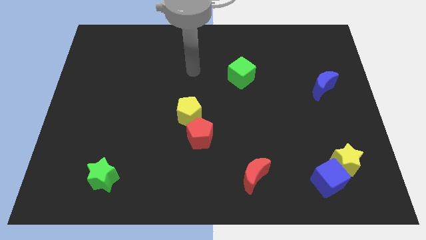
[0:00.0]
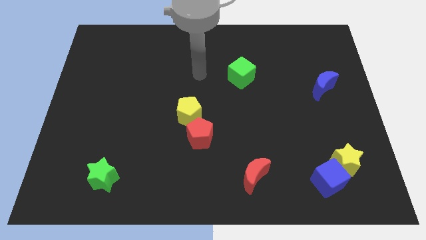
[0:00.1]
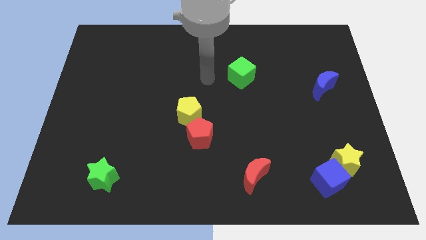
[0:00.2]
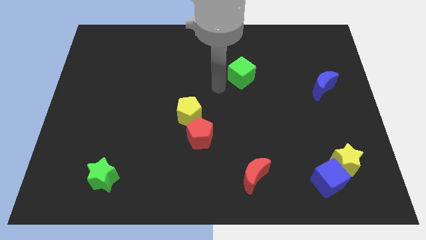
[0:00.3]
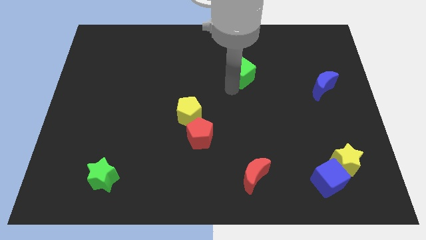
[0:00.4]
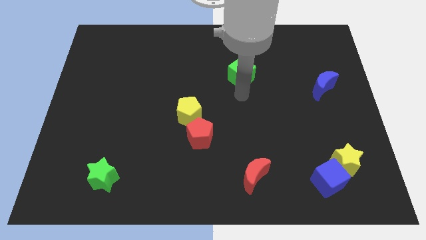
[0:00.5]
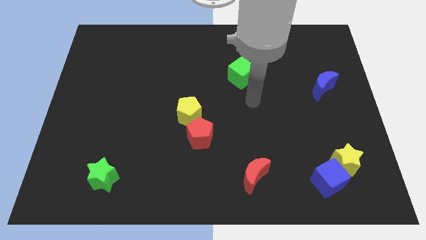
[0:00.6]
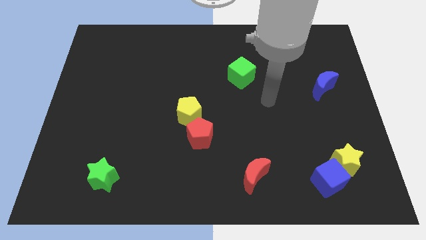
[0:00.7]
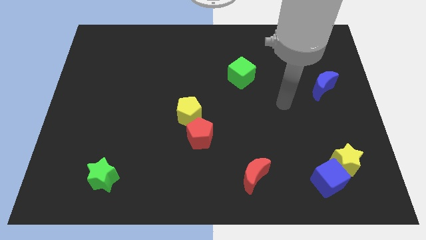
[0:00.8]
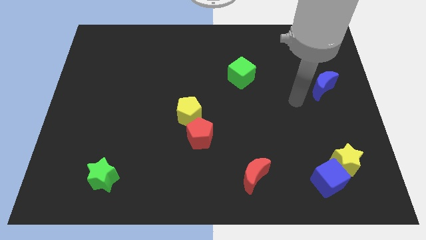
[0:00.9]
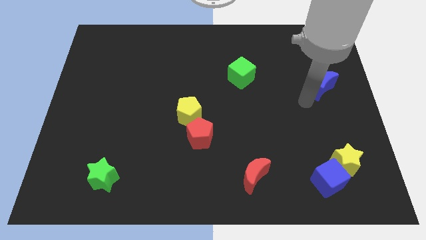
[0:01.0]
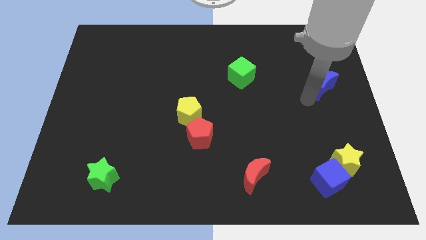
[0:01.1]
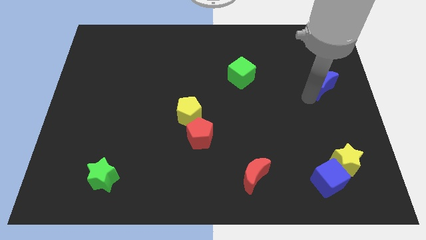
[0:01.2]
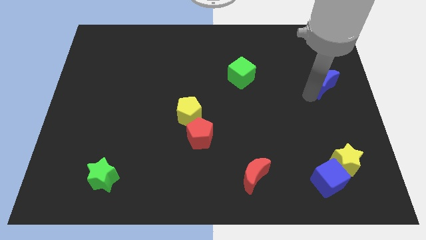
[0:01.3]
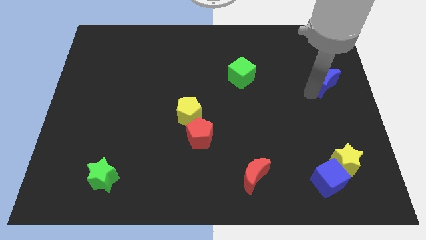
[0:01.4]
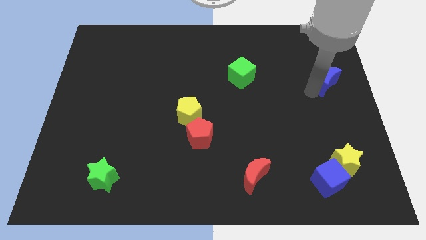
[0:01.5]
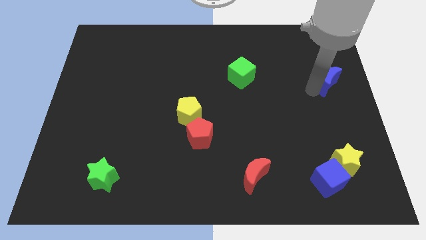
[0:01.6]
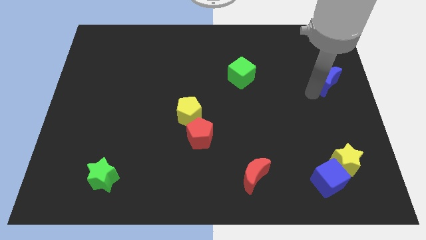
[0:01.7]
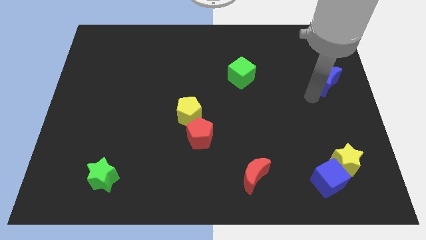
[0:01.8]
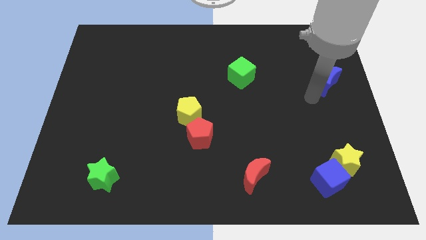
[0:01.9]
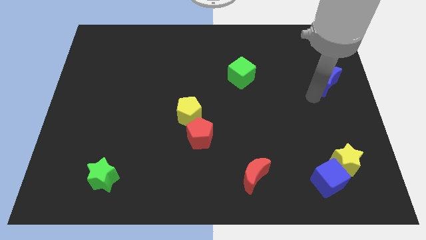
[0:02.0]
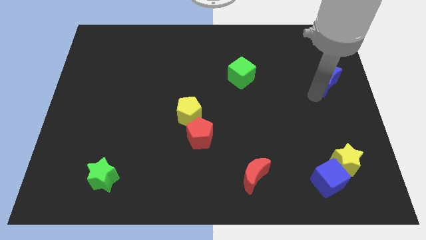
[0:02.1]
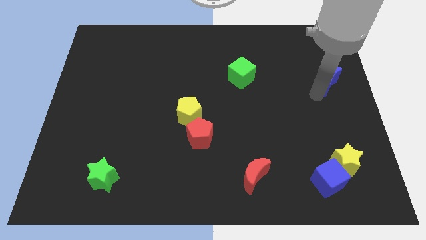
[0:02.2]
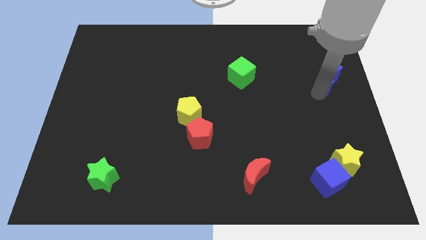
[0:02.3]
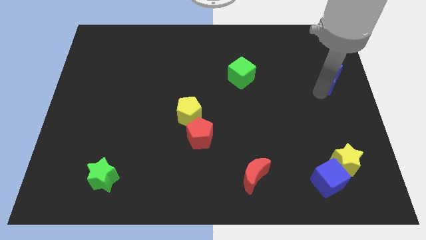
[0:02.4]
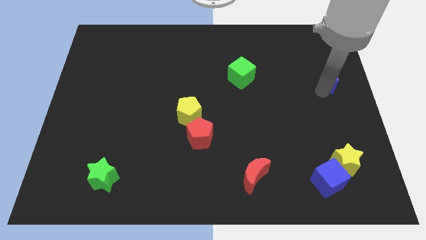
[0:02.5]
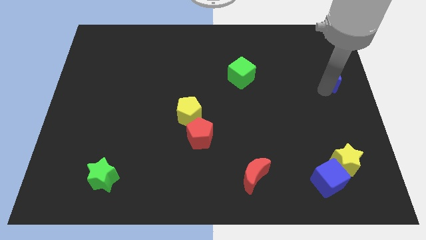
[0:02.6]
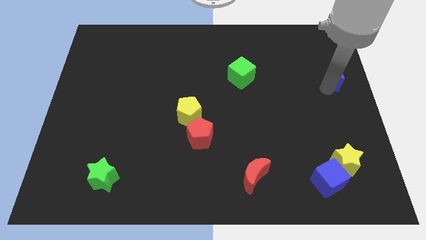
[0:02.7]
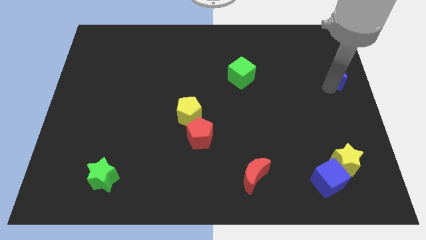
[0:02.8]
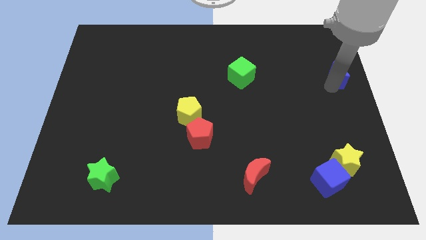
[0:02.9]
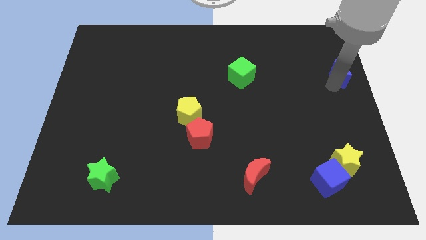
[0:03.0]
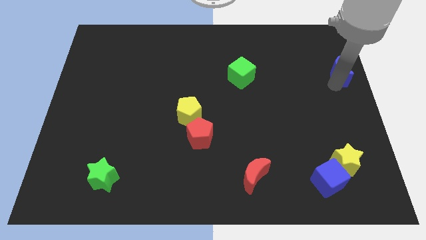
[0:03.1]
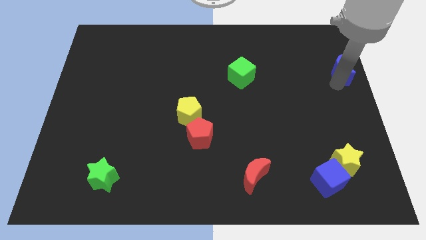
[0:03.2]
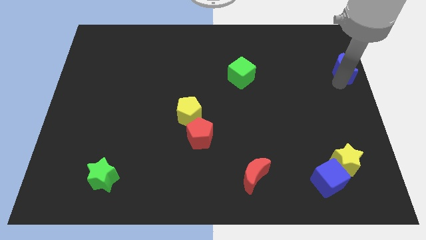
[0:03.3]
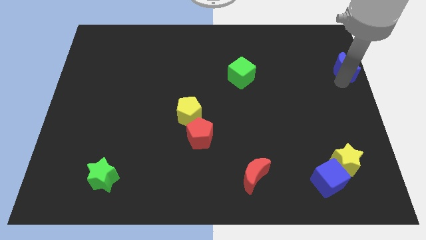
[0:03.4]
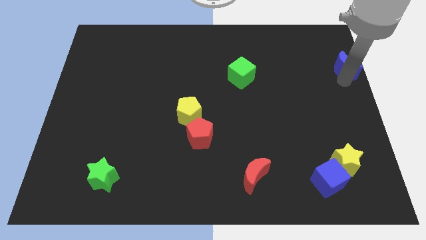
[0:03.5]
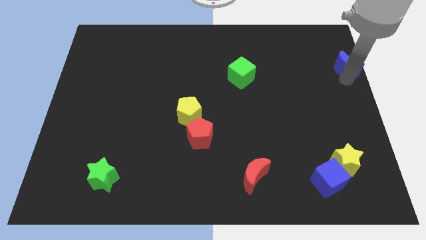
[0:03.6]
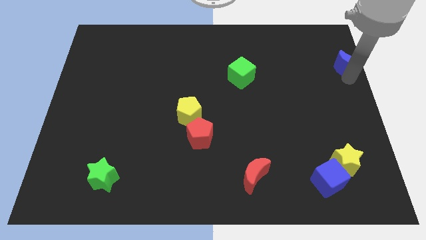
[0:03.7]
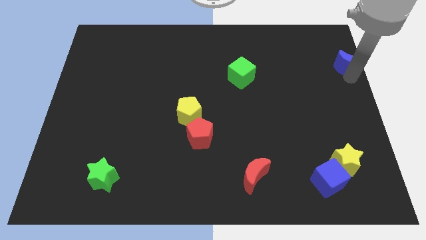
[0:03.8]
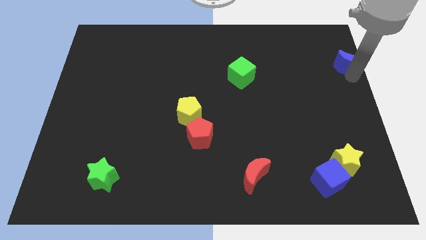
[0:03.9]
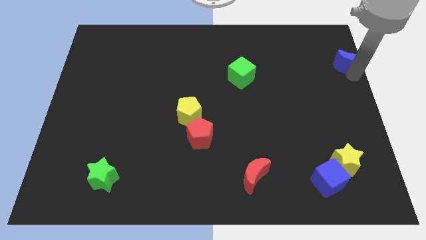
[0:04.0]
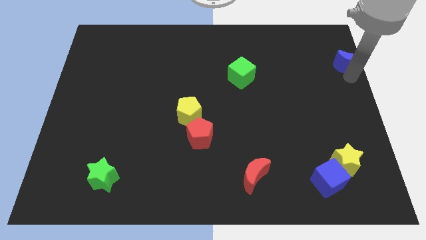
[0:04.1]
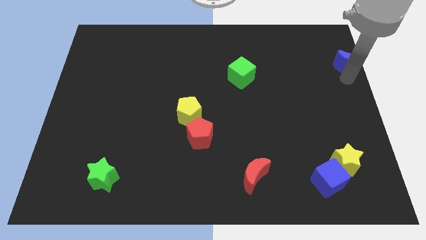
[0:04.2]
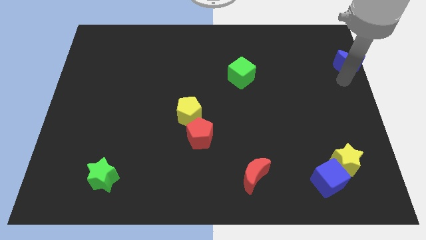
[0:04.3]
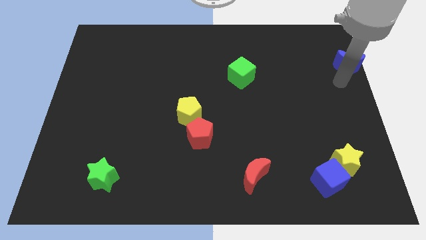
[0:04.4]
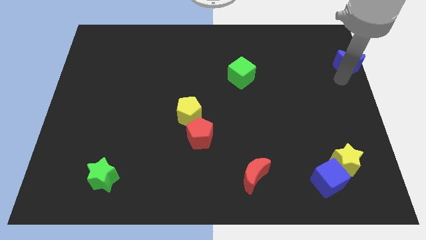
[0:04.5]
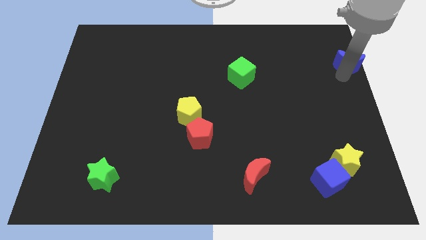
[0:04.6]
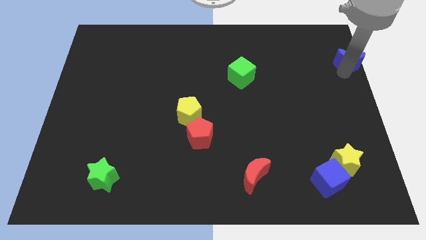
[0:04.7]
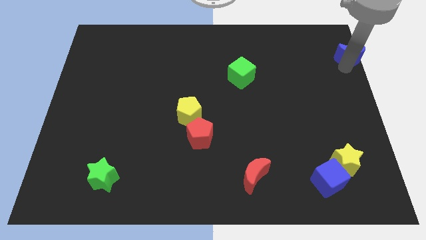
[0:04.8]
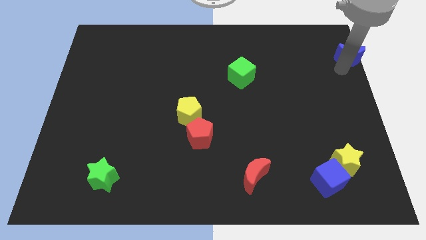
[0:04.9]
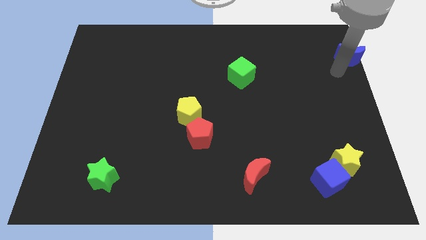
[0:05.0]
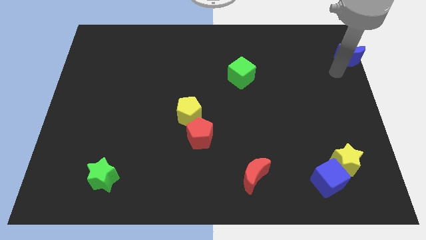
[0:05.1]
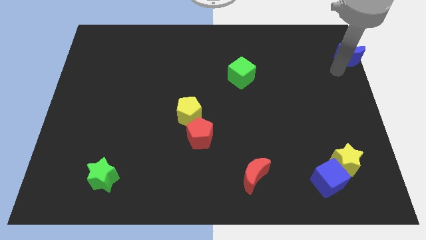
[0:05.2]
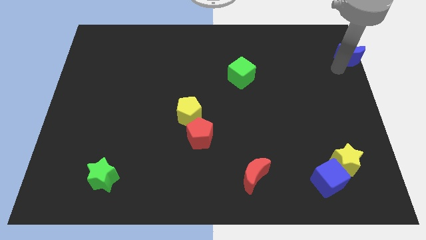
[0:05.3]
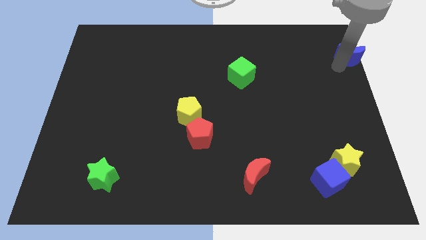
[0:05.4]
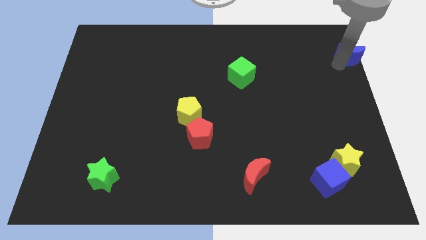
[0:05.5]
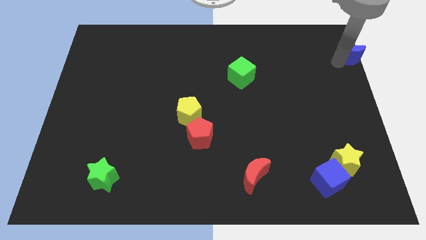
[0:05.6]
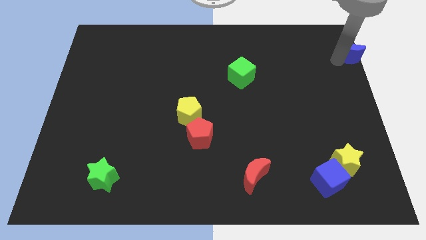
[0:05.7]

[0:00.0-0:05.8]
move the blue moon to the top right corner
